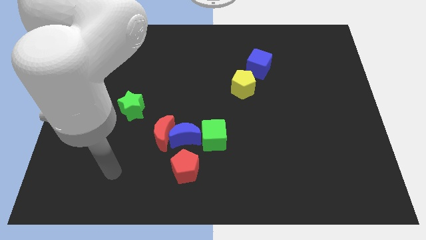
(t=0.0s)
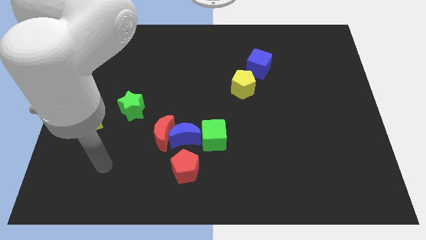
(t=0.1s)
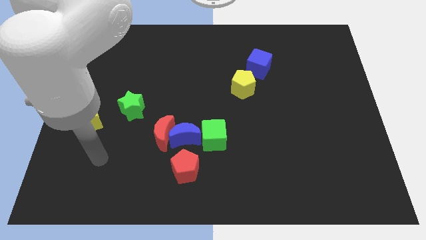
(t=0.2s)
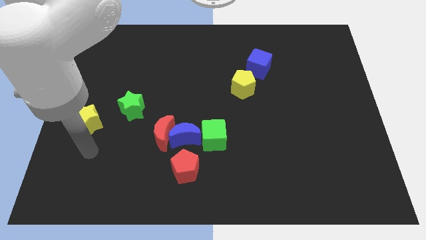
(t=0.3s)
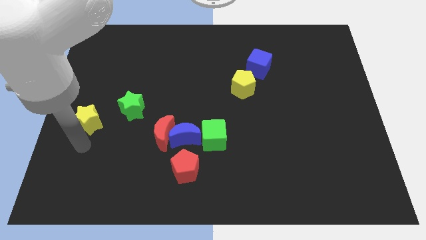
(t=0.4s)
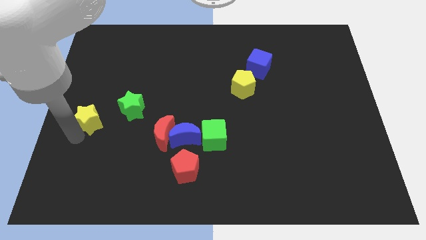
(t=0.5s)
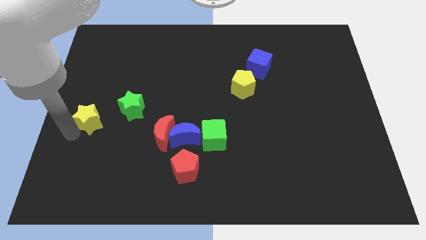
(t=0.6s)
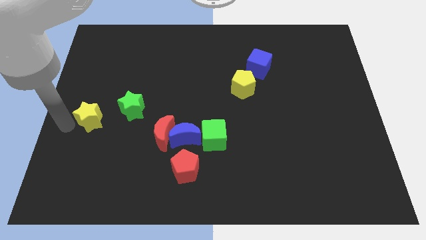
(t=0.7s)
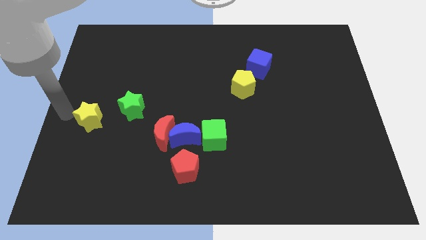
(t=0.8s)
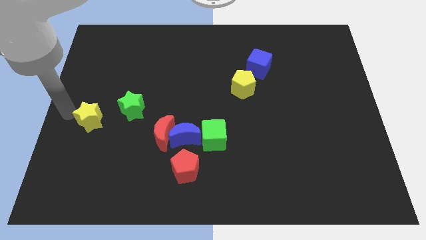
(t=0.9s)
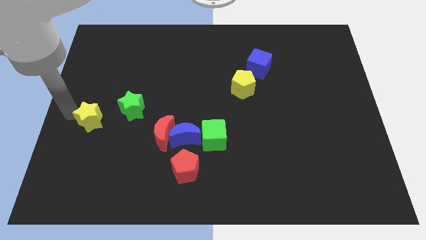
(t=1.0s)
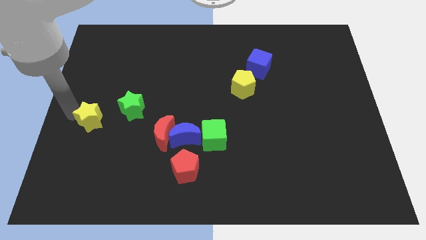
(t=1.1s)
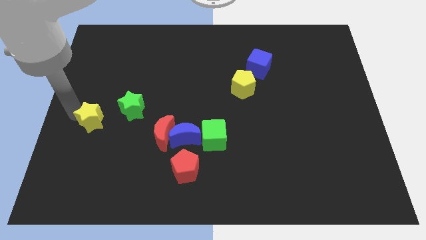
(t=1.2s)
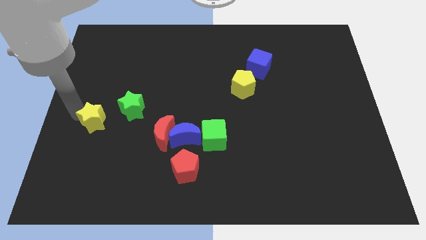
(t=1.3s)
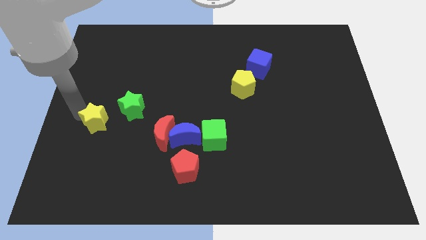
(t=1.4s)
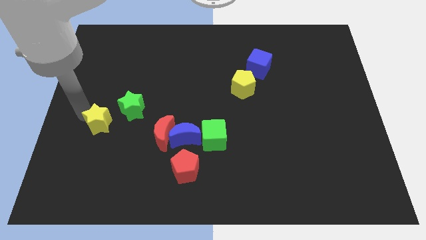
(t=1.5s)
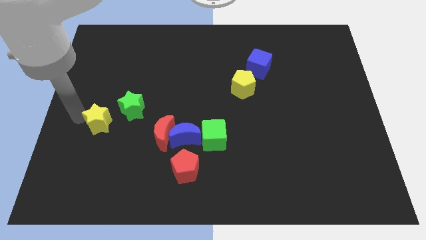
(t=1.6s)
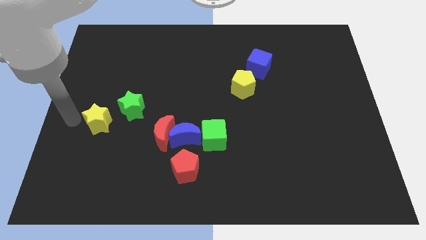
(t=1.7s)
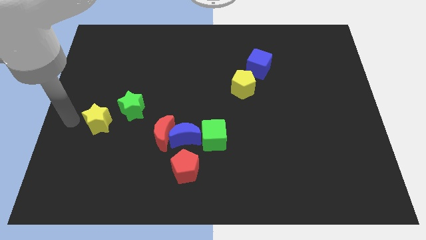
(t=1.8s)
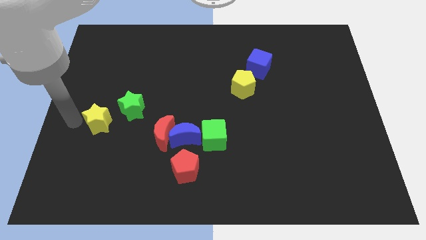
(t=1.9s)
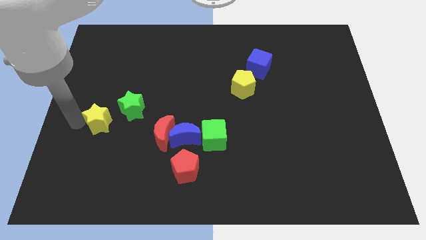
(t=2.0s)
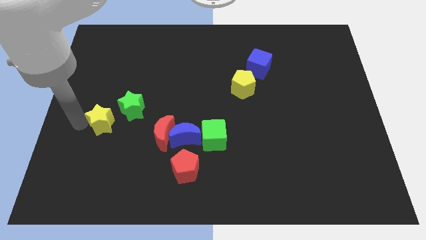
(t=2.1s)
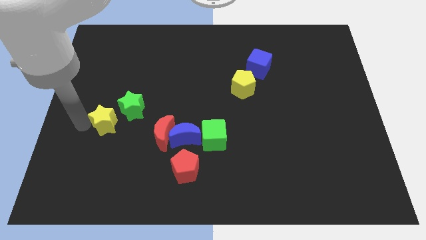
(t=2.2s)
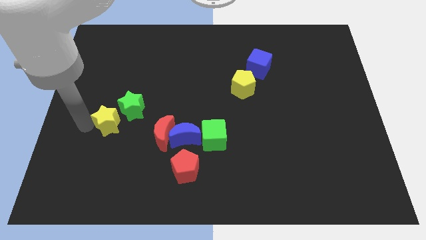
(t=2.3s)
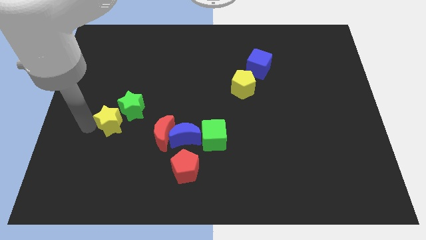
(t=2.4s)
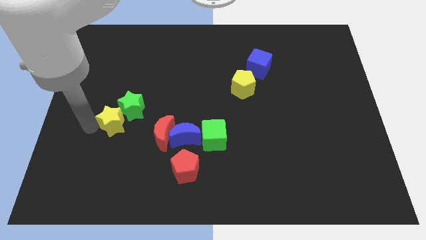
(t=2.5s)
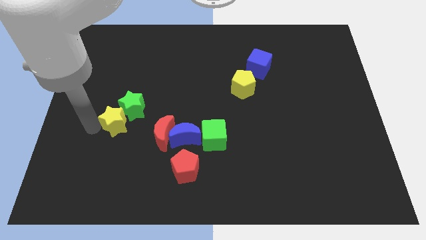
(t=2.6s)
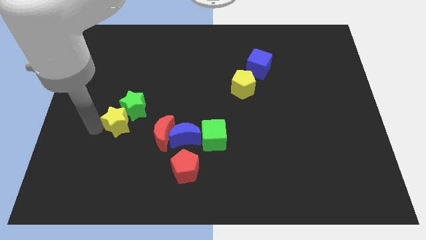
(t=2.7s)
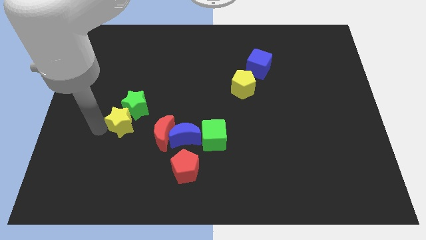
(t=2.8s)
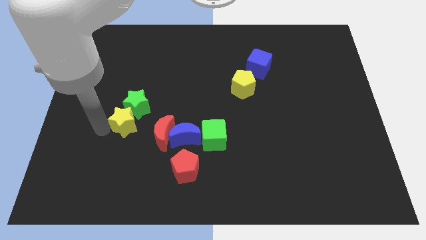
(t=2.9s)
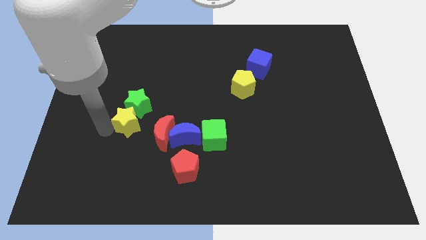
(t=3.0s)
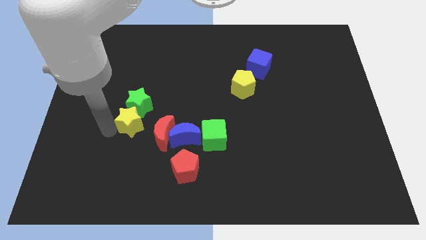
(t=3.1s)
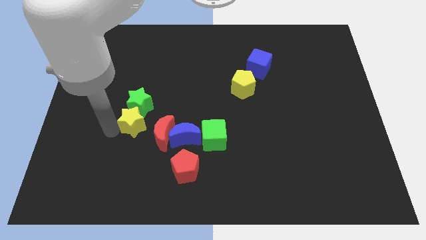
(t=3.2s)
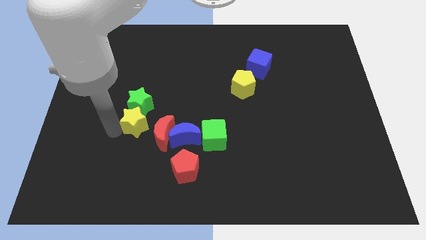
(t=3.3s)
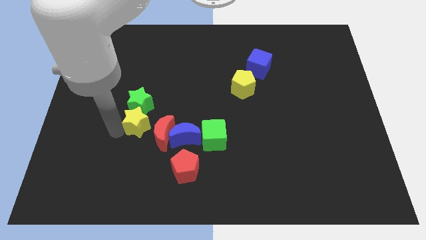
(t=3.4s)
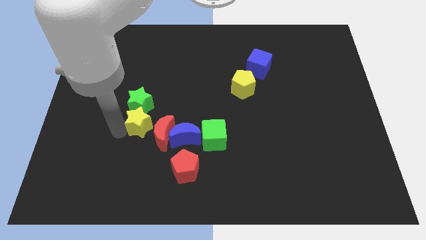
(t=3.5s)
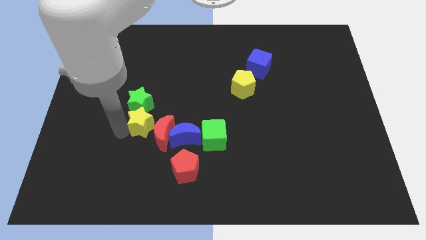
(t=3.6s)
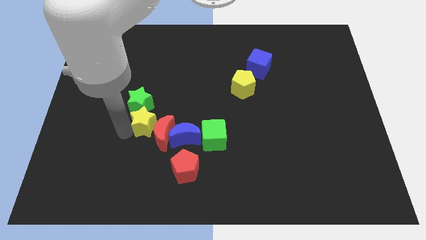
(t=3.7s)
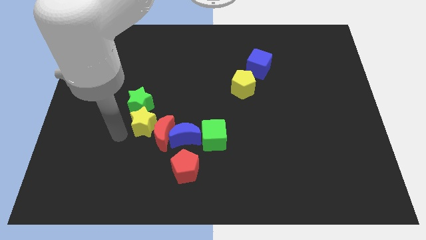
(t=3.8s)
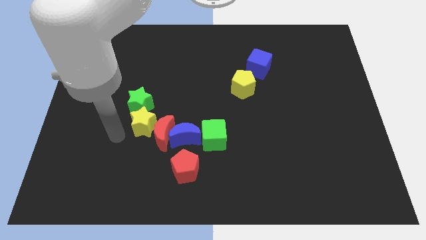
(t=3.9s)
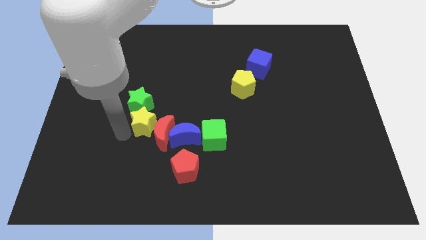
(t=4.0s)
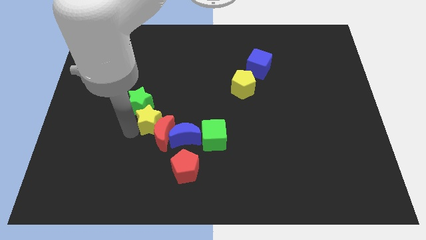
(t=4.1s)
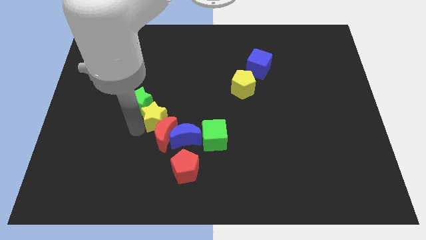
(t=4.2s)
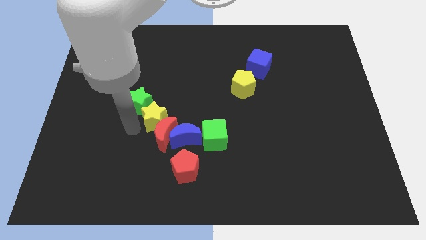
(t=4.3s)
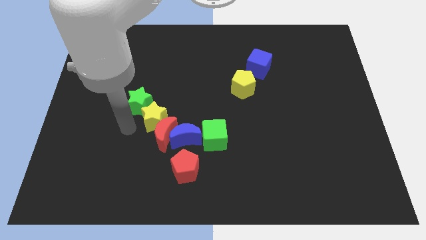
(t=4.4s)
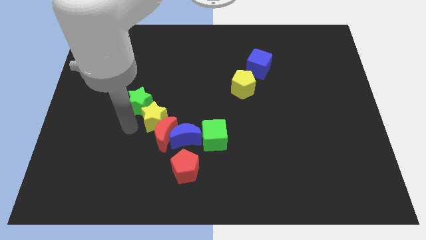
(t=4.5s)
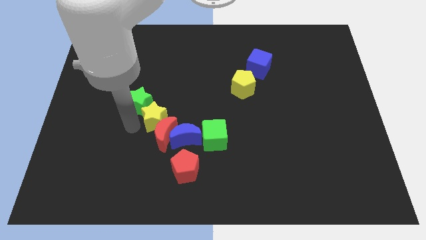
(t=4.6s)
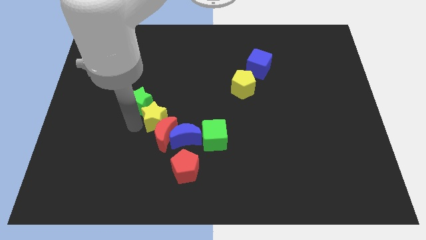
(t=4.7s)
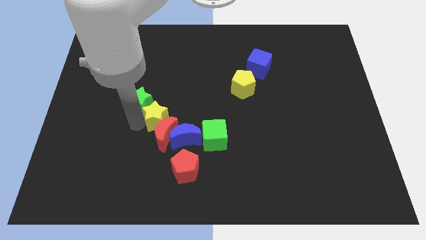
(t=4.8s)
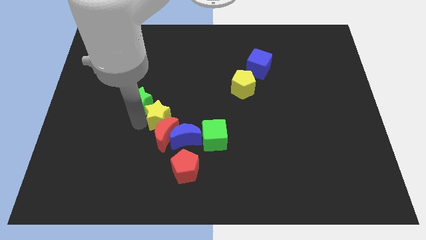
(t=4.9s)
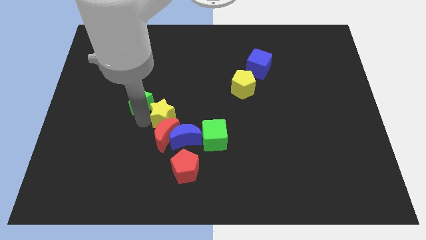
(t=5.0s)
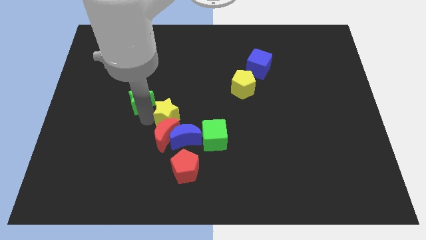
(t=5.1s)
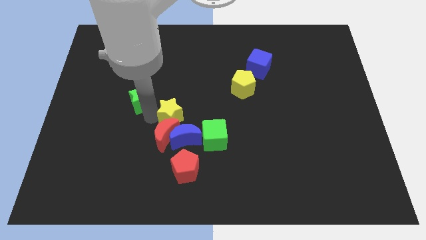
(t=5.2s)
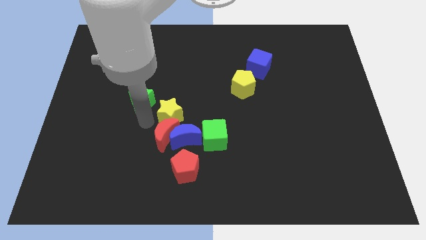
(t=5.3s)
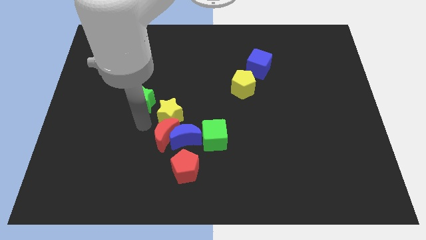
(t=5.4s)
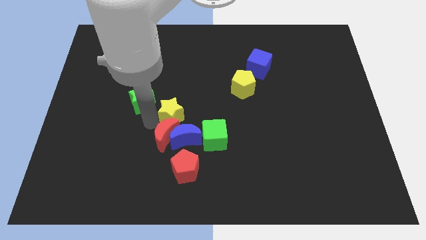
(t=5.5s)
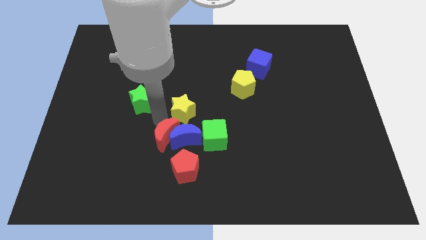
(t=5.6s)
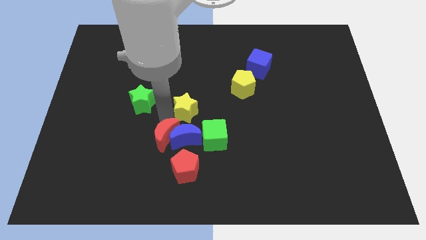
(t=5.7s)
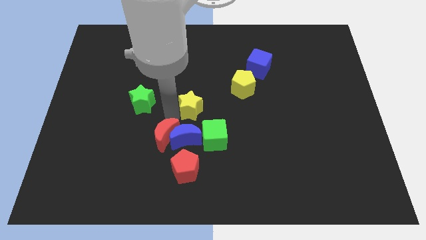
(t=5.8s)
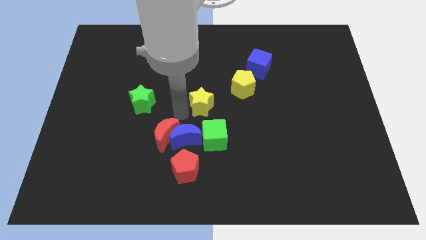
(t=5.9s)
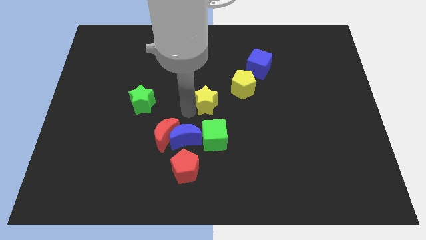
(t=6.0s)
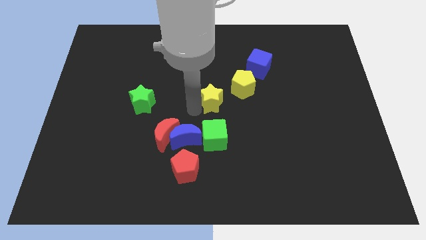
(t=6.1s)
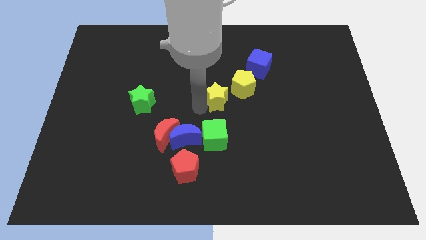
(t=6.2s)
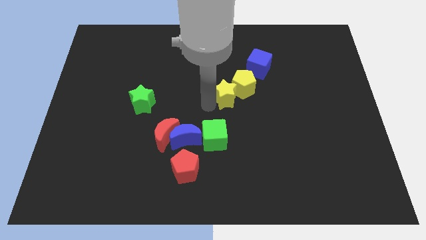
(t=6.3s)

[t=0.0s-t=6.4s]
push the yellow star close to the yellow pentagon

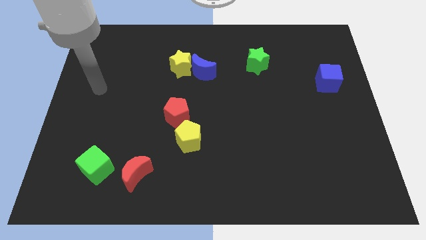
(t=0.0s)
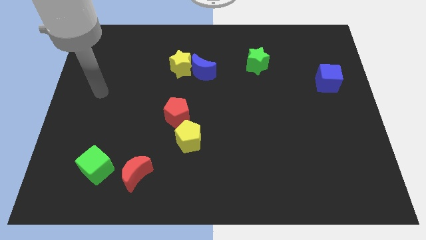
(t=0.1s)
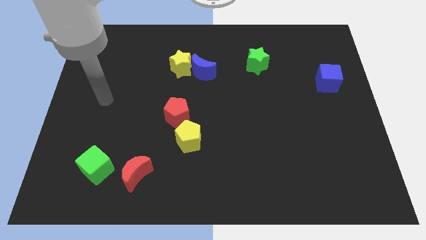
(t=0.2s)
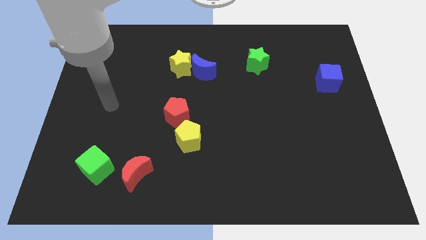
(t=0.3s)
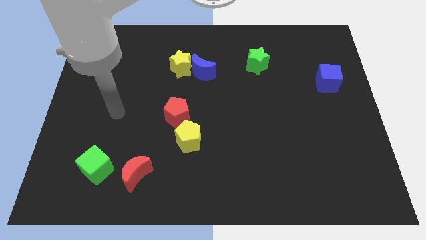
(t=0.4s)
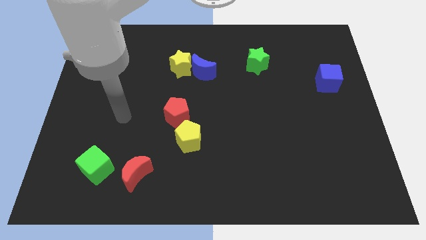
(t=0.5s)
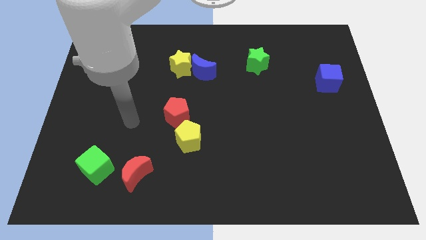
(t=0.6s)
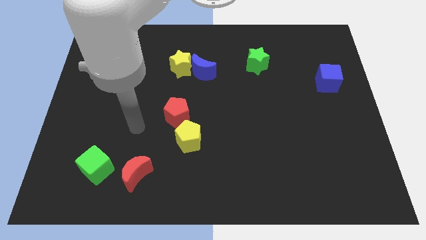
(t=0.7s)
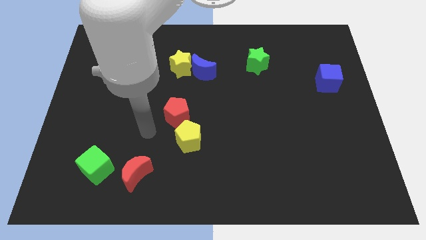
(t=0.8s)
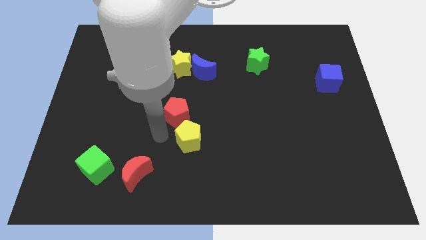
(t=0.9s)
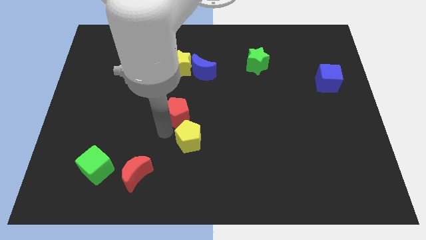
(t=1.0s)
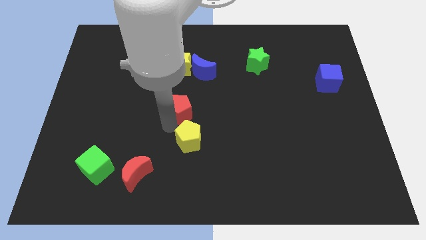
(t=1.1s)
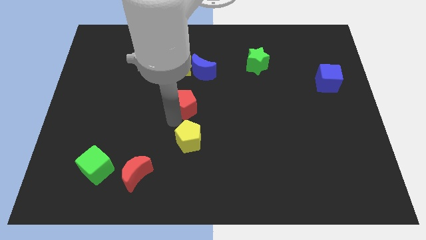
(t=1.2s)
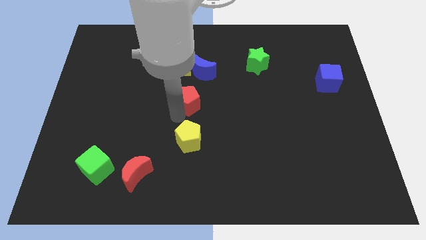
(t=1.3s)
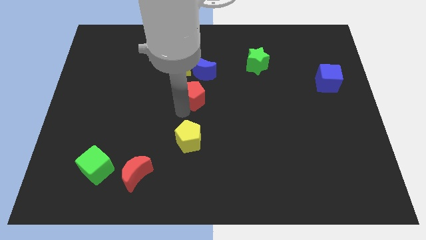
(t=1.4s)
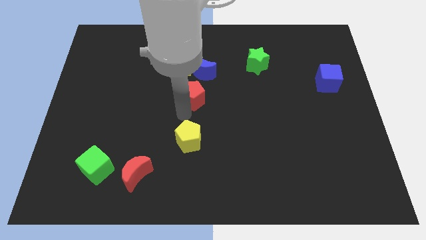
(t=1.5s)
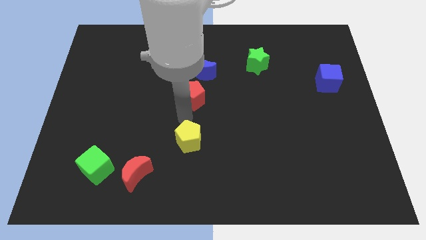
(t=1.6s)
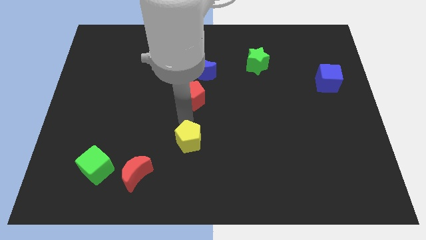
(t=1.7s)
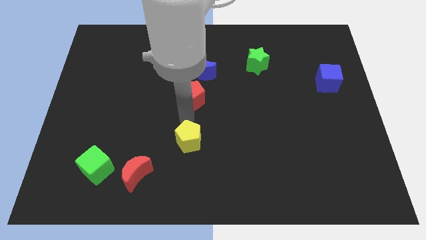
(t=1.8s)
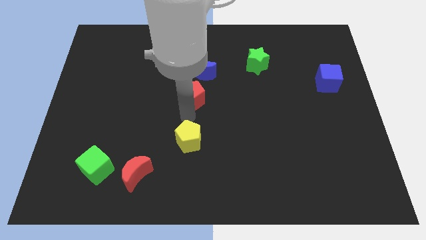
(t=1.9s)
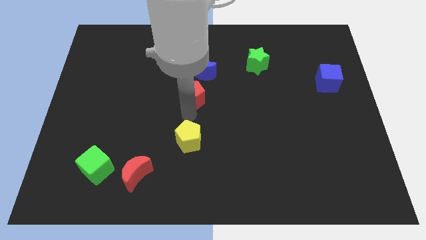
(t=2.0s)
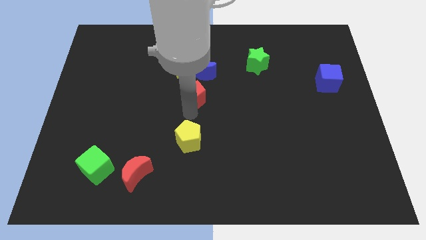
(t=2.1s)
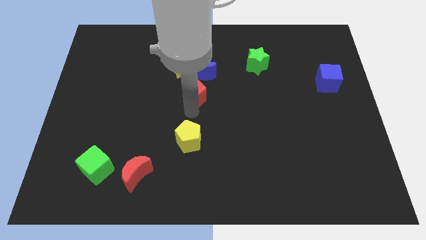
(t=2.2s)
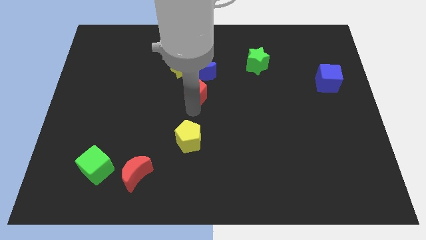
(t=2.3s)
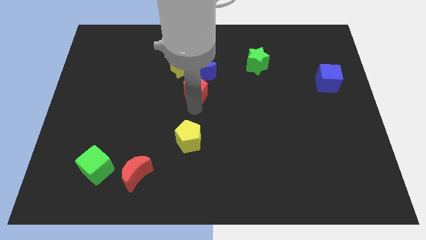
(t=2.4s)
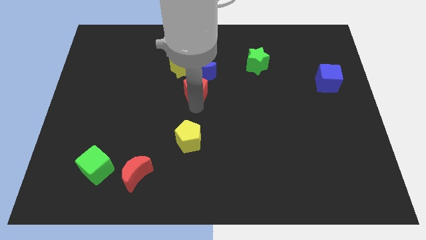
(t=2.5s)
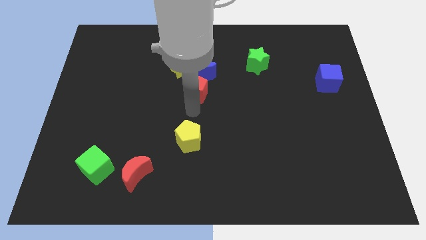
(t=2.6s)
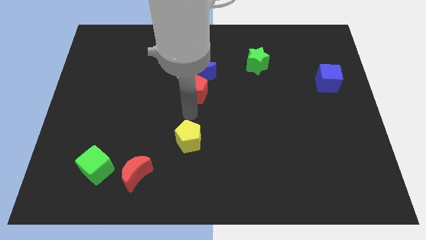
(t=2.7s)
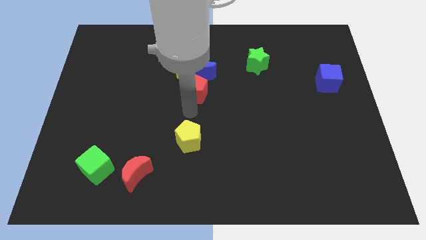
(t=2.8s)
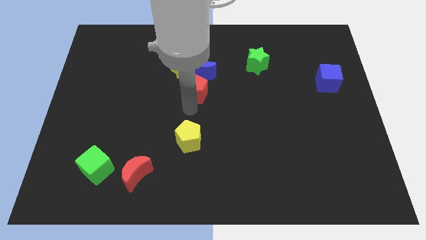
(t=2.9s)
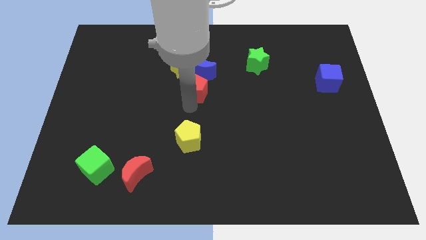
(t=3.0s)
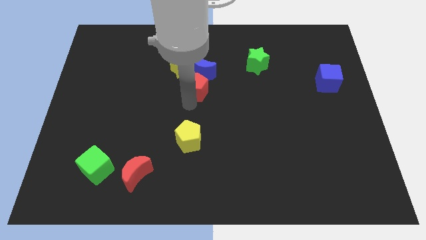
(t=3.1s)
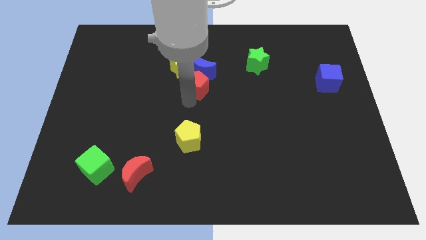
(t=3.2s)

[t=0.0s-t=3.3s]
slide the red pentagon close to the blue moon
